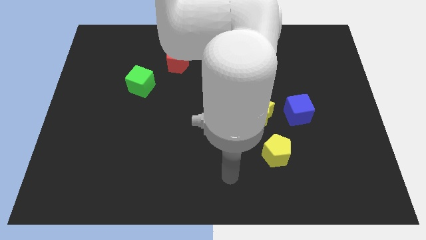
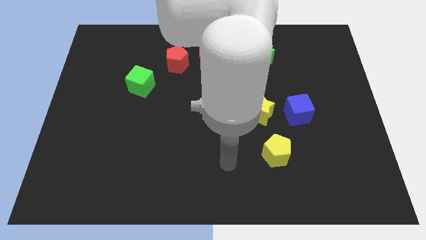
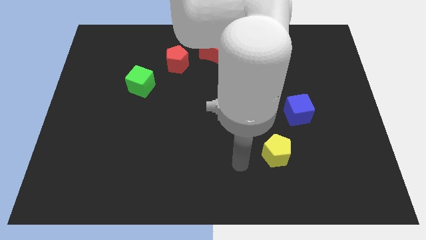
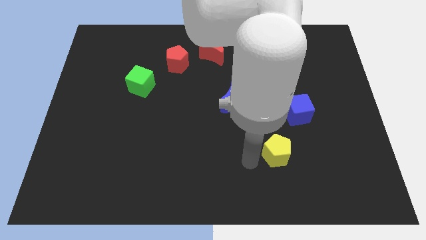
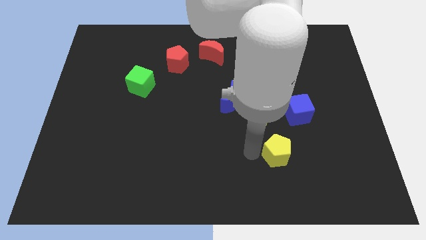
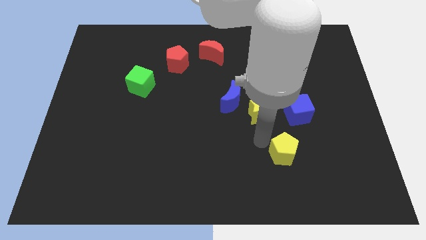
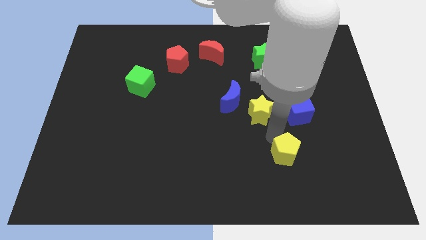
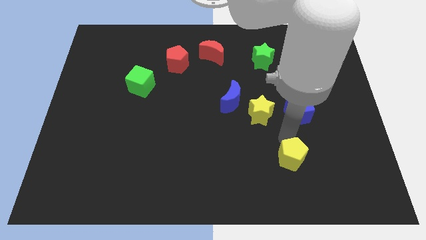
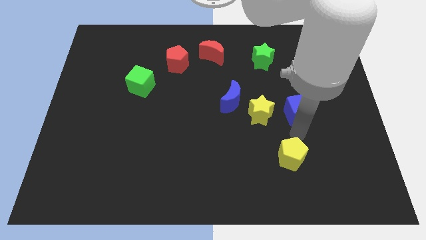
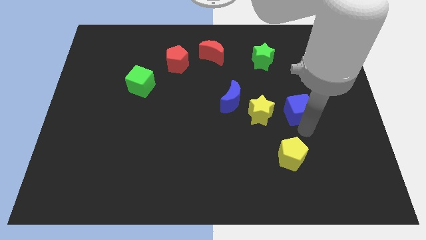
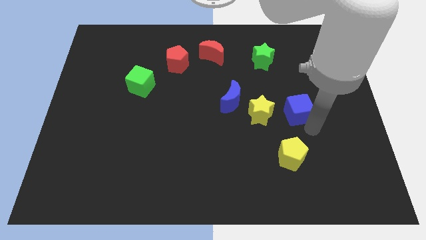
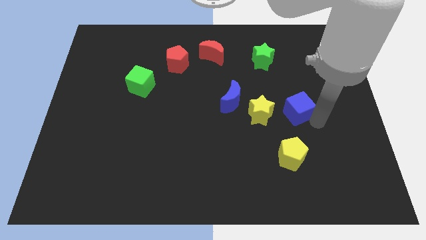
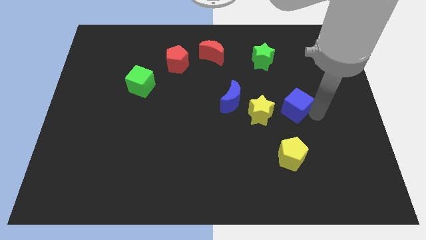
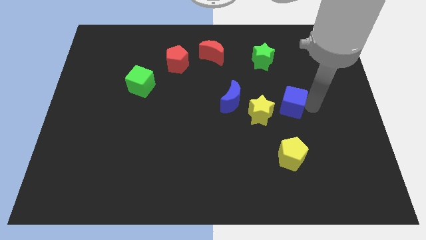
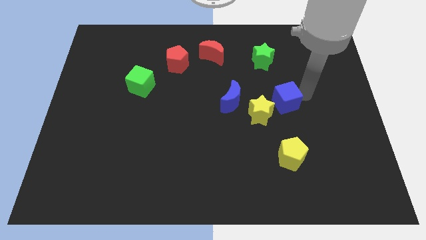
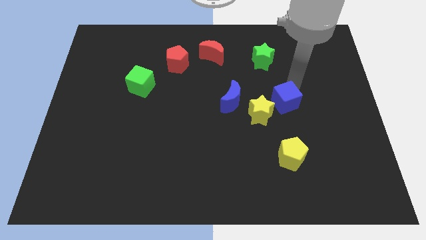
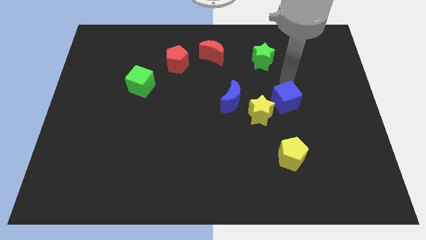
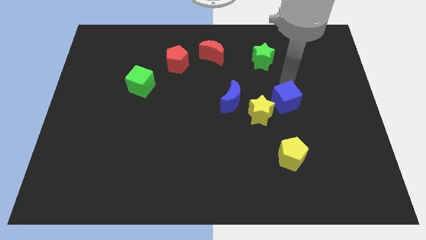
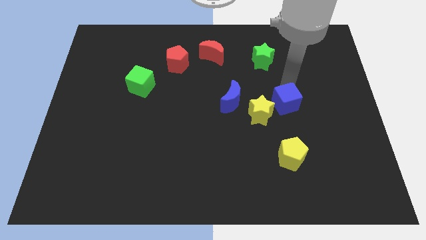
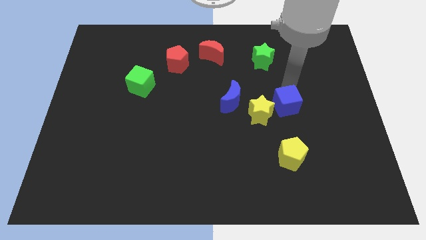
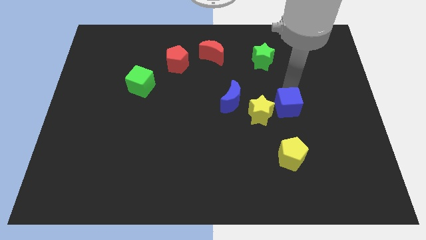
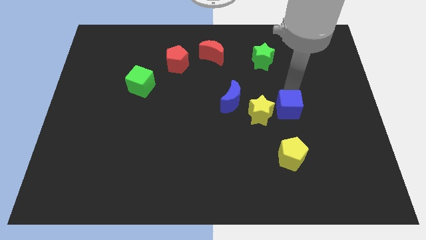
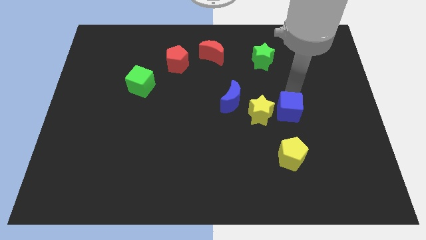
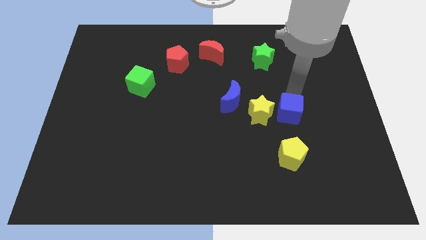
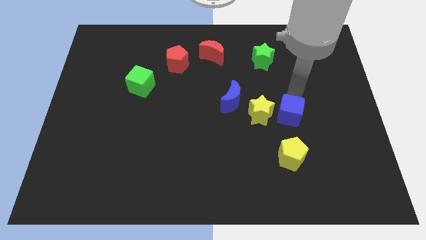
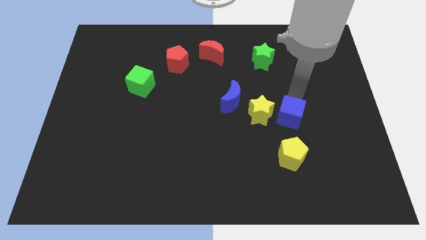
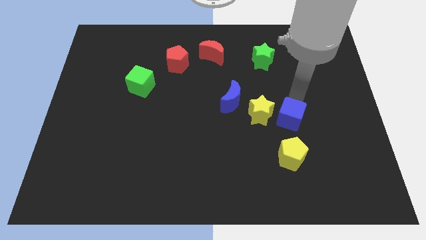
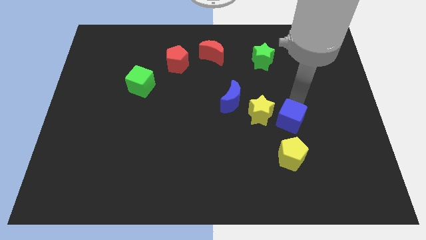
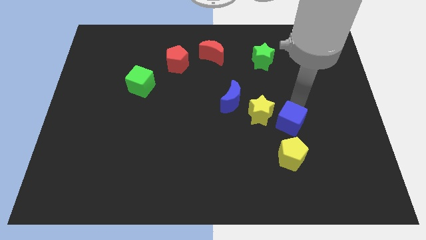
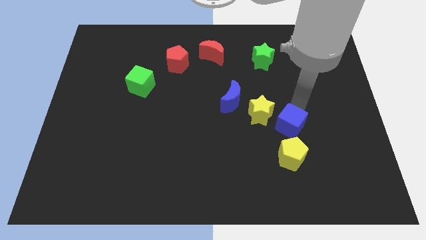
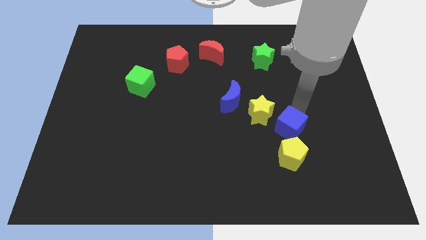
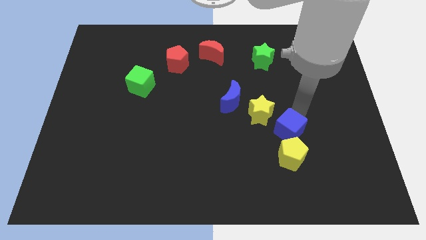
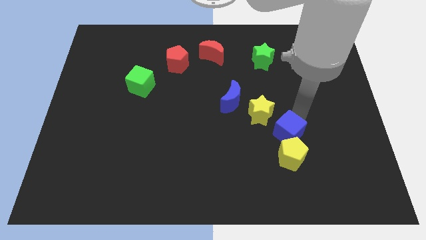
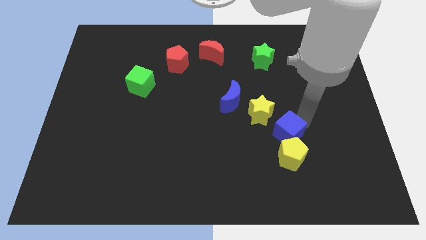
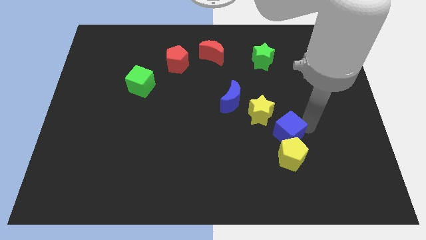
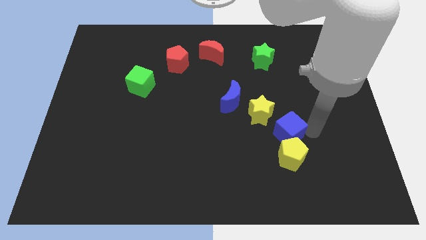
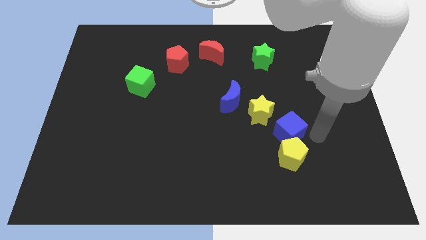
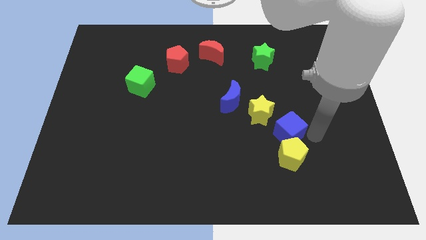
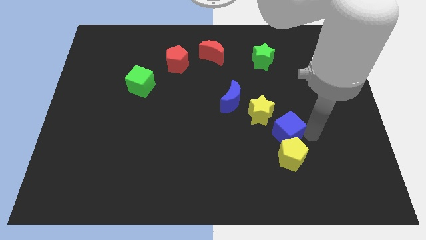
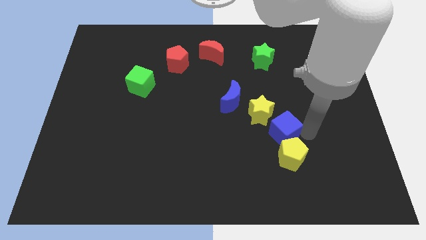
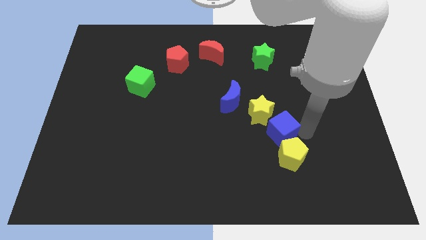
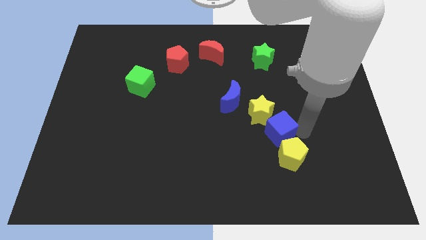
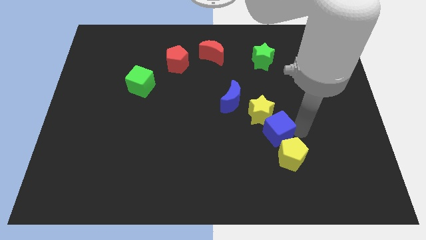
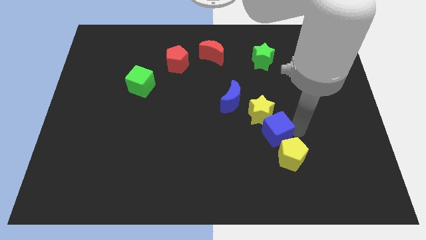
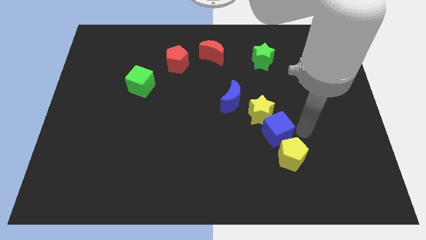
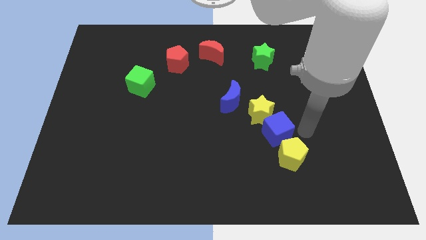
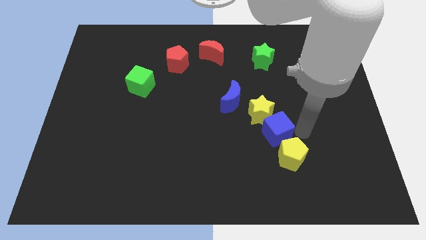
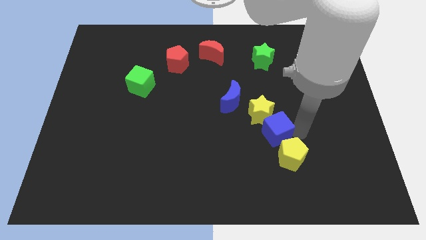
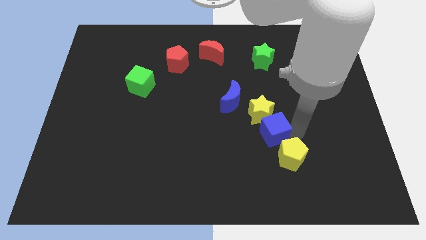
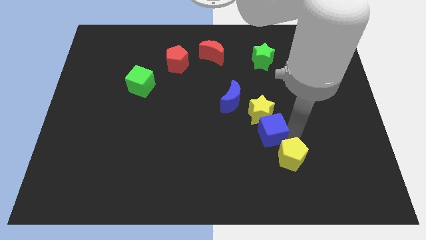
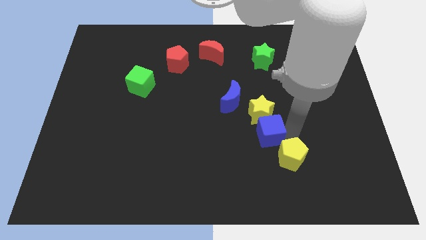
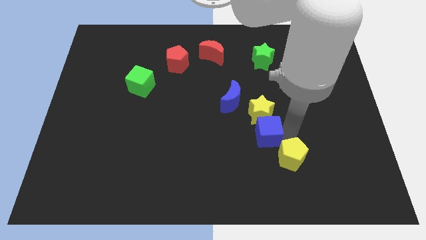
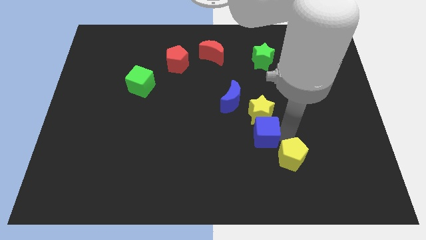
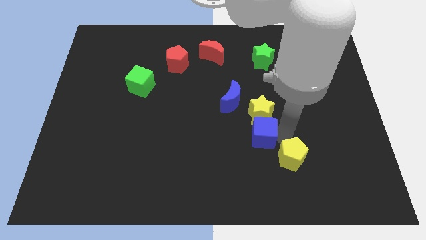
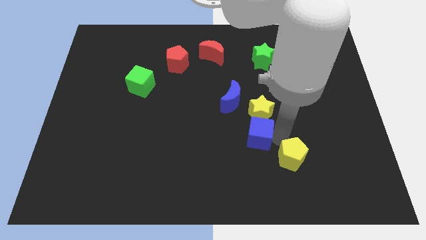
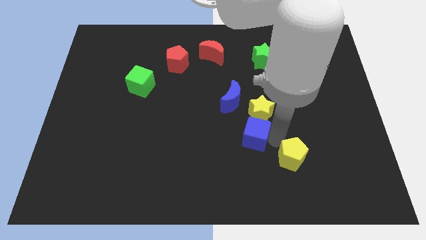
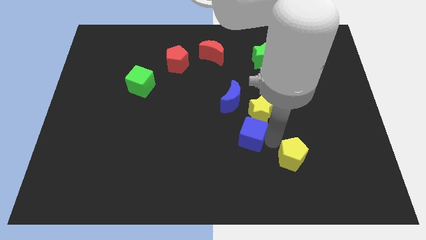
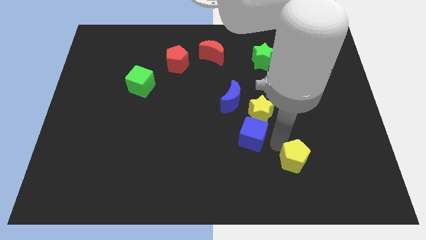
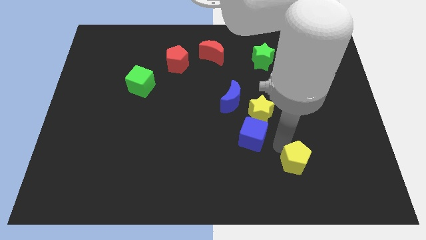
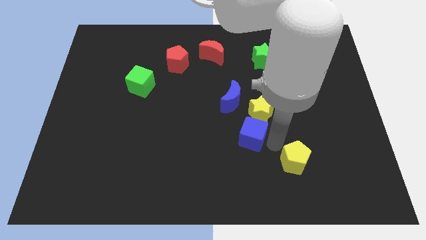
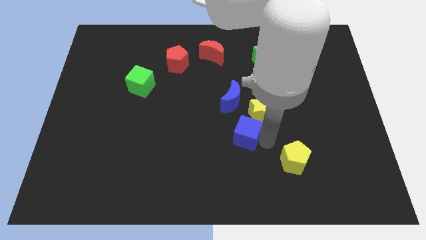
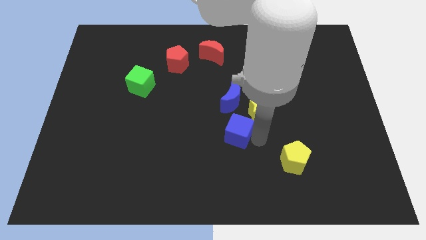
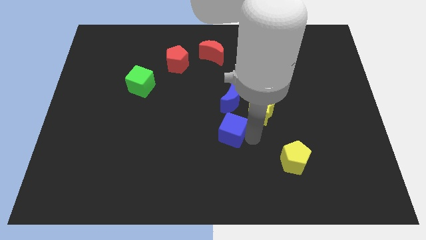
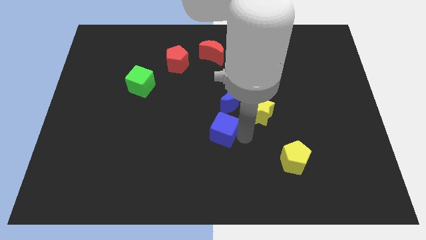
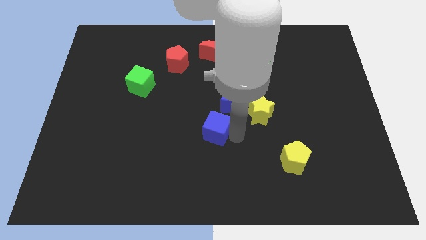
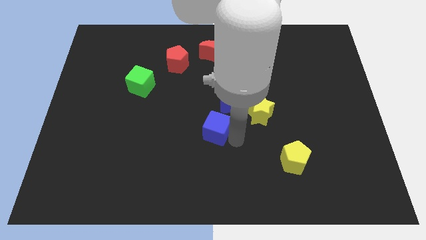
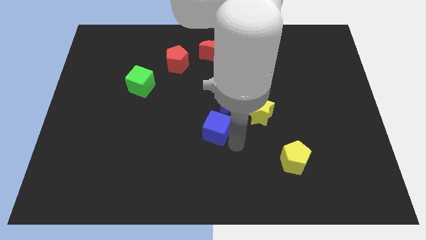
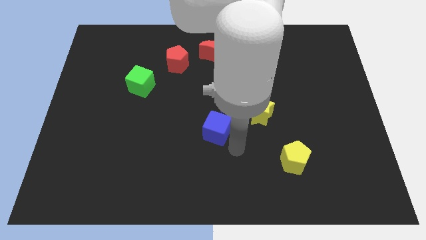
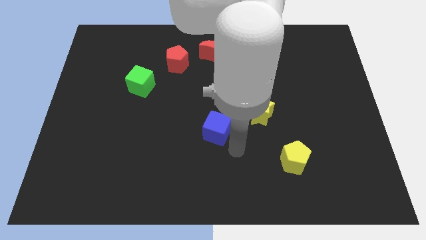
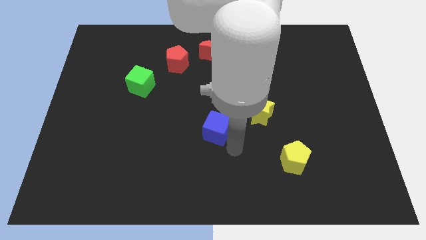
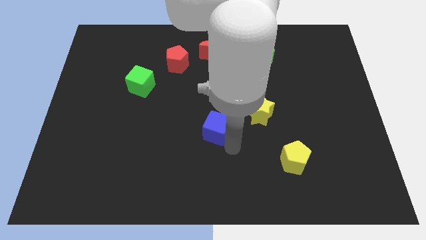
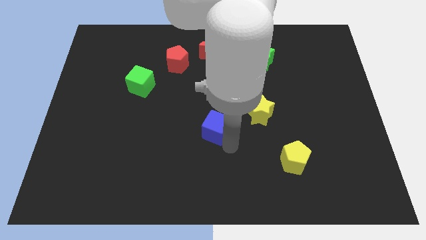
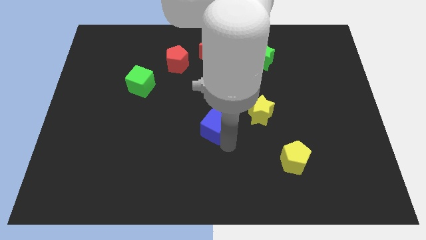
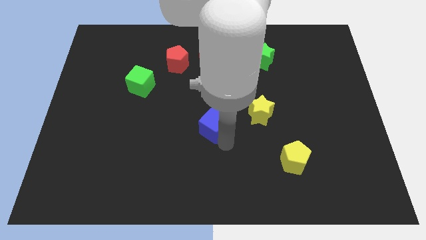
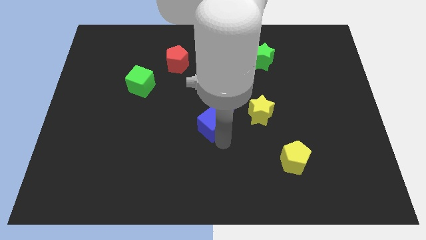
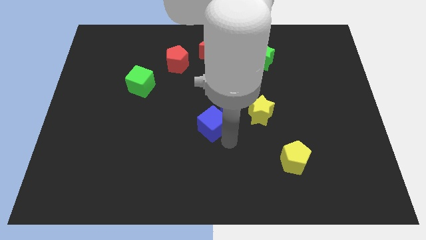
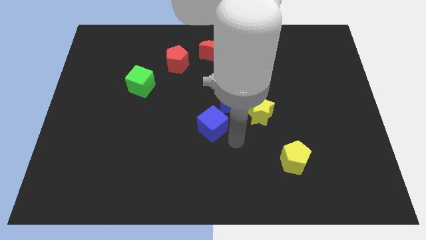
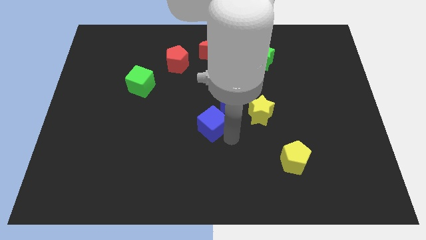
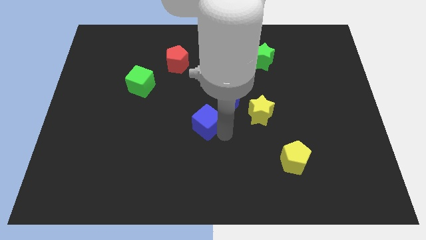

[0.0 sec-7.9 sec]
move the blue cube left
